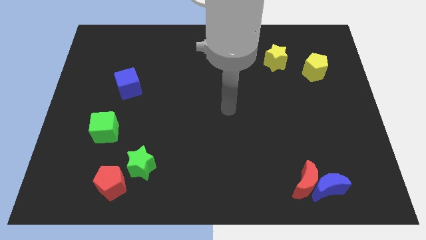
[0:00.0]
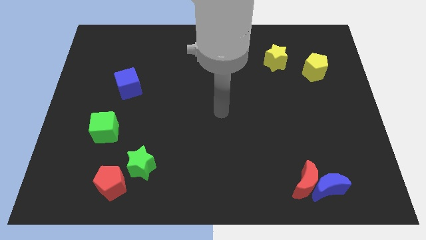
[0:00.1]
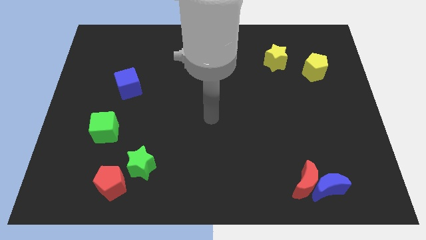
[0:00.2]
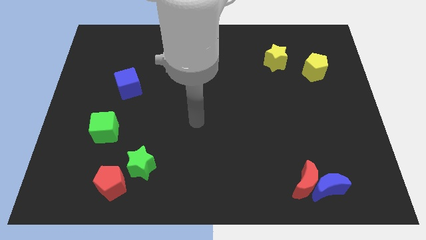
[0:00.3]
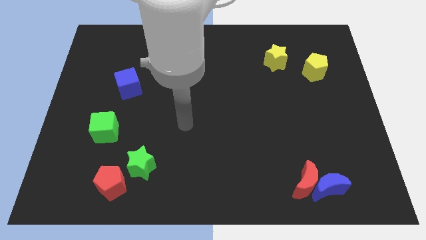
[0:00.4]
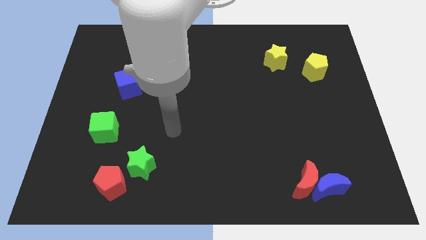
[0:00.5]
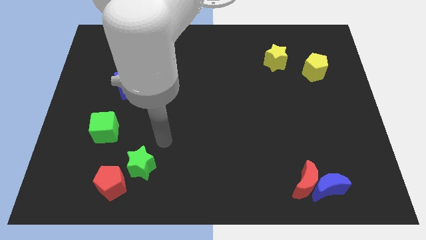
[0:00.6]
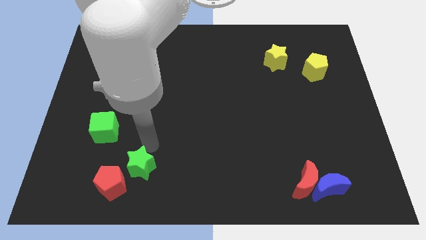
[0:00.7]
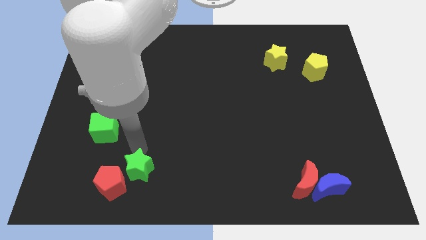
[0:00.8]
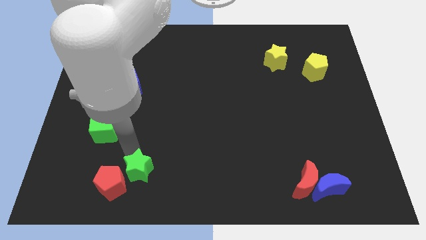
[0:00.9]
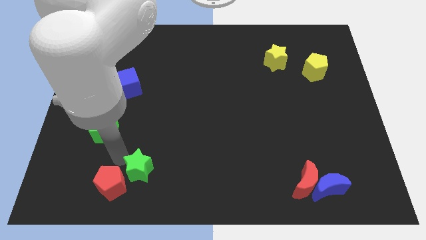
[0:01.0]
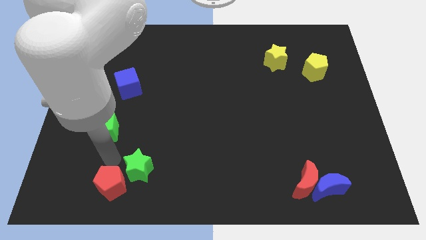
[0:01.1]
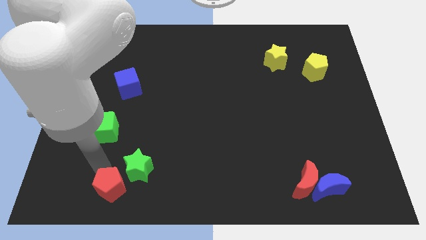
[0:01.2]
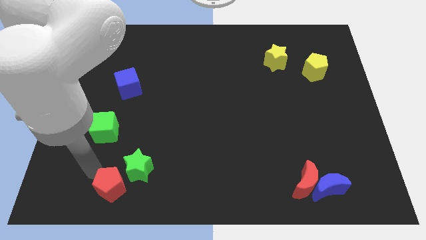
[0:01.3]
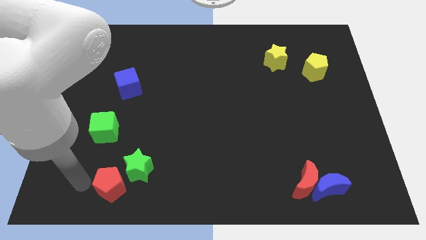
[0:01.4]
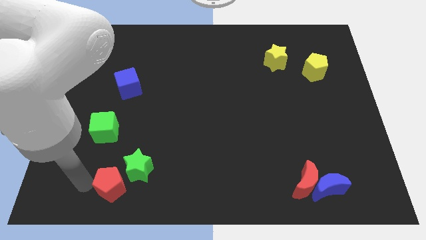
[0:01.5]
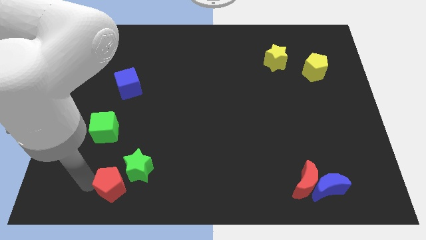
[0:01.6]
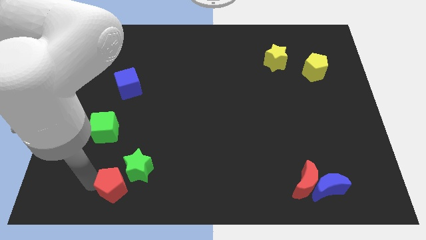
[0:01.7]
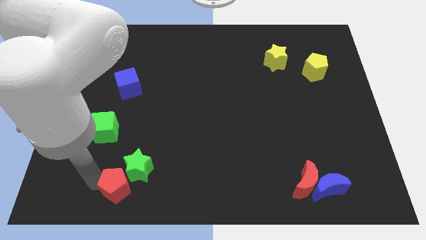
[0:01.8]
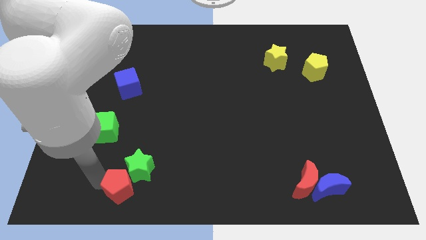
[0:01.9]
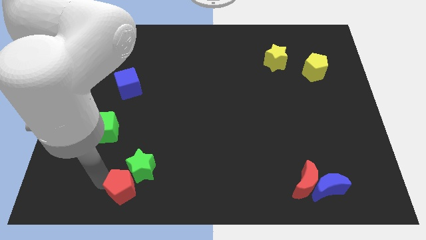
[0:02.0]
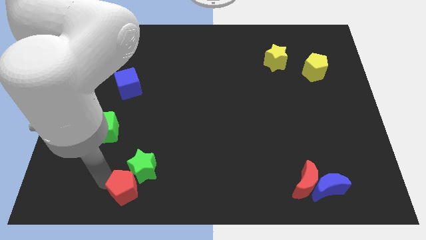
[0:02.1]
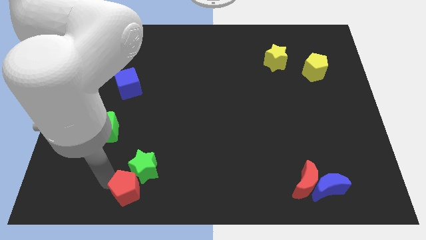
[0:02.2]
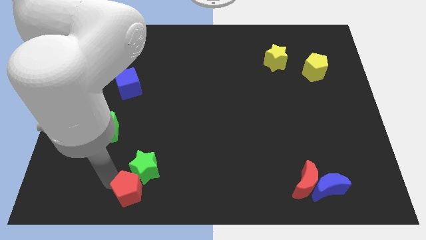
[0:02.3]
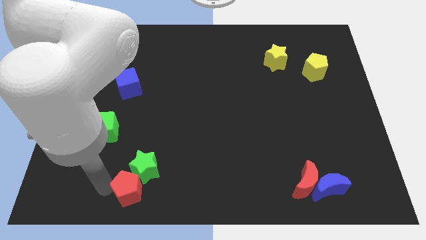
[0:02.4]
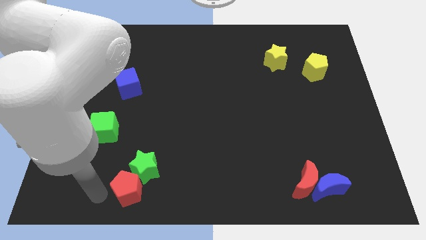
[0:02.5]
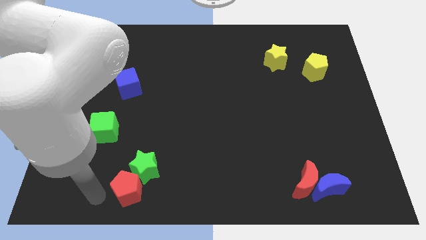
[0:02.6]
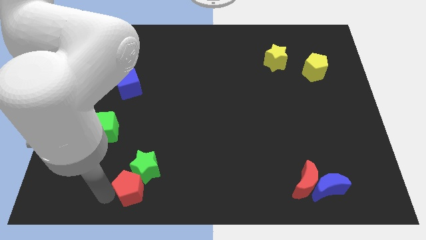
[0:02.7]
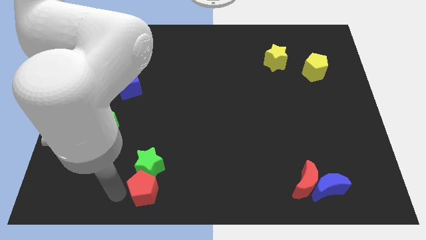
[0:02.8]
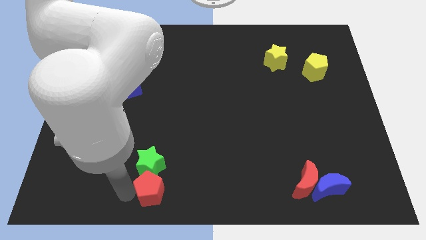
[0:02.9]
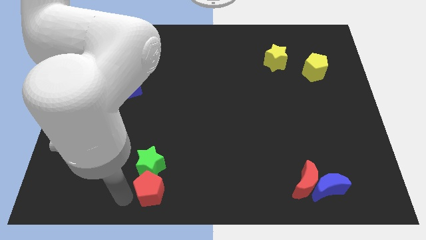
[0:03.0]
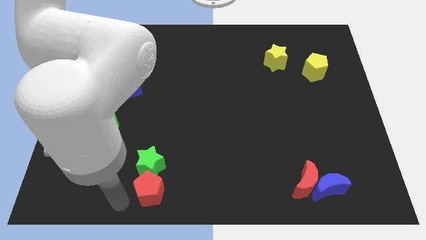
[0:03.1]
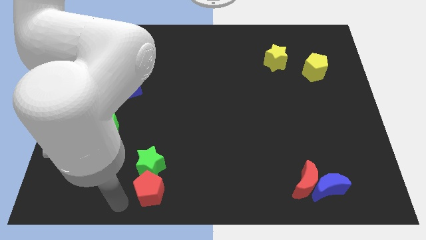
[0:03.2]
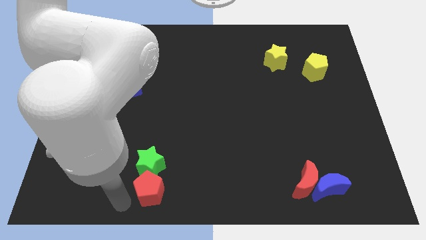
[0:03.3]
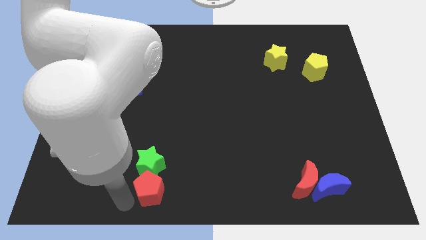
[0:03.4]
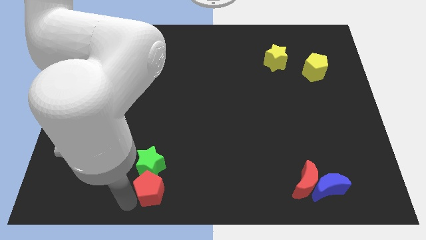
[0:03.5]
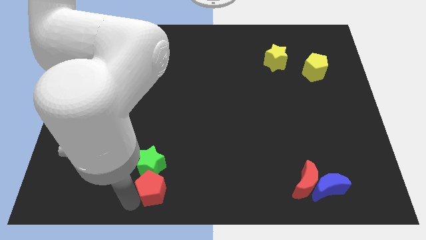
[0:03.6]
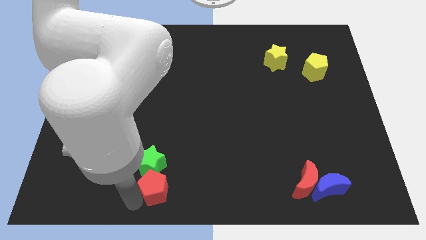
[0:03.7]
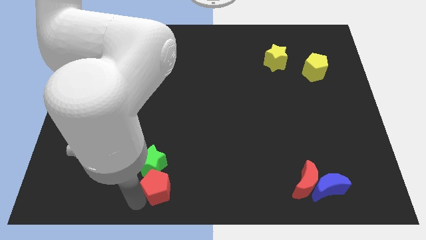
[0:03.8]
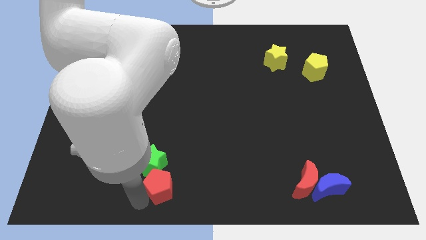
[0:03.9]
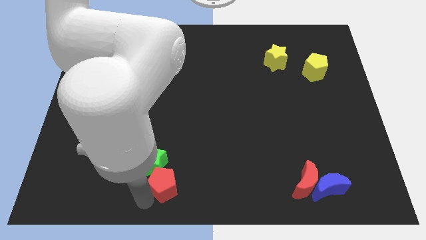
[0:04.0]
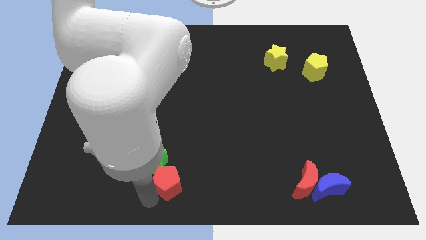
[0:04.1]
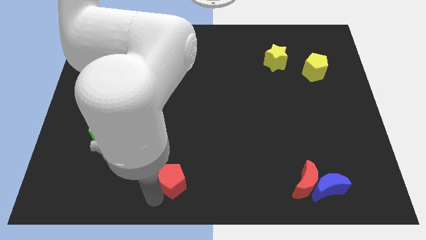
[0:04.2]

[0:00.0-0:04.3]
move the red pentagon right of the green star

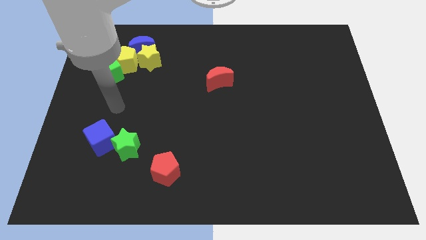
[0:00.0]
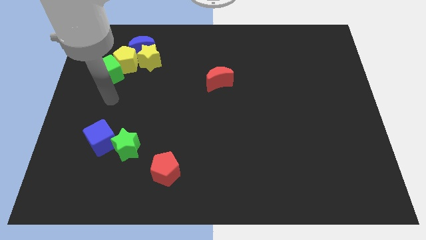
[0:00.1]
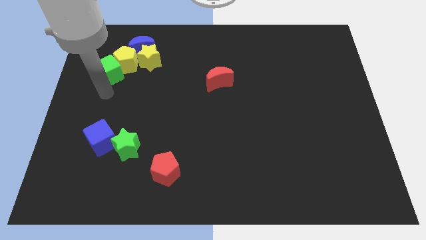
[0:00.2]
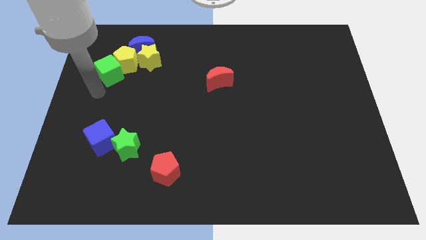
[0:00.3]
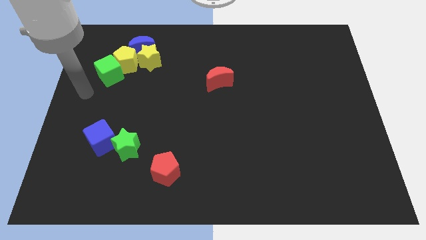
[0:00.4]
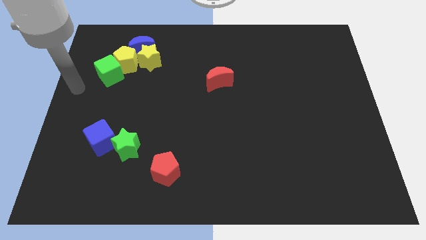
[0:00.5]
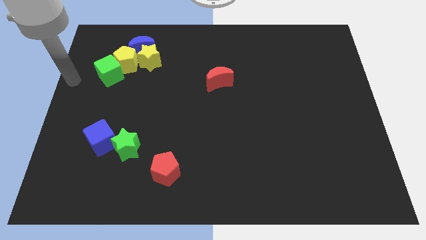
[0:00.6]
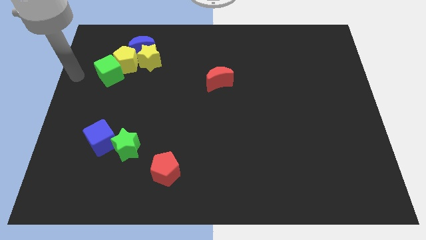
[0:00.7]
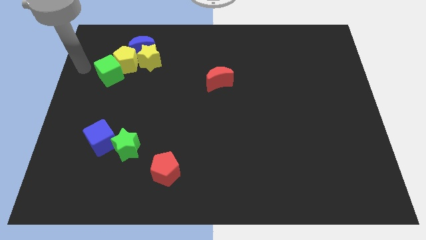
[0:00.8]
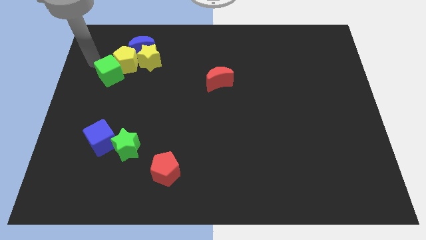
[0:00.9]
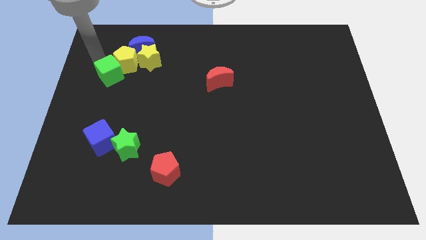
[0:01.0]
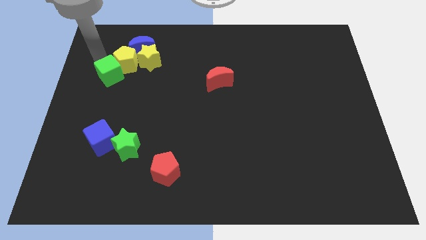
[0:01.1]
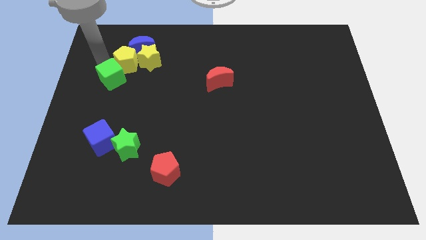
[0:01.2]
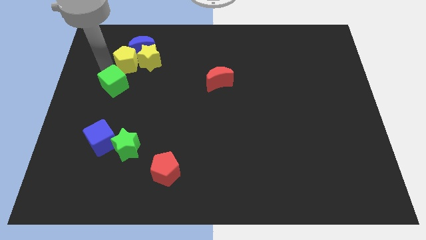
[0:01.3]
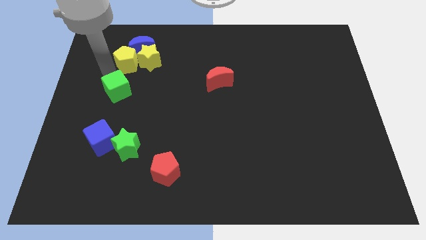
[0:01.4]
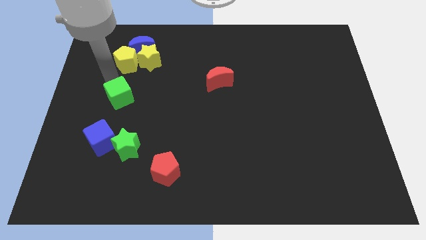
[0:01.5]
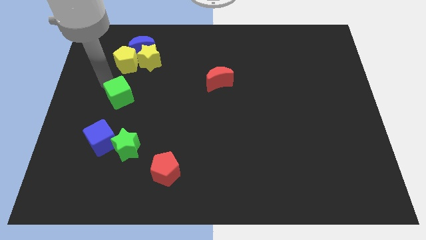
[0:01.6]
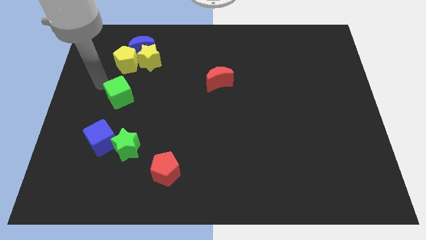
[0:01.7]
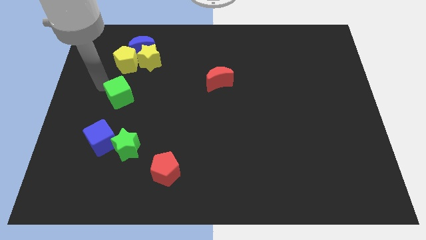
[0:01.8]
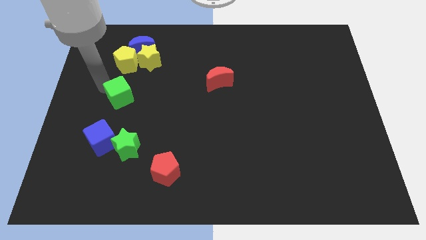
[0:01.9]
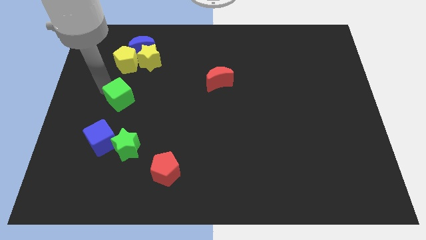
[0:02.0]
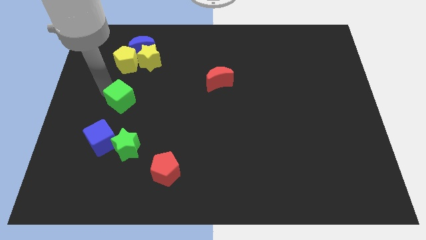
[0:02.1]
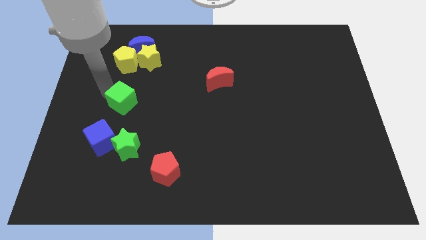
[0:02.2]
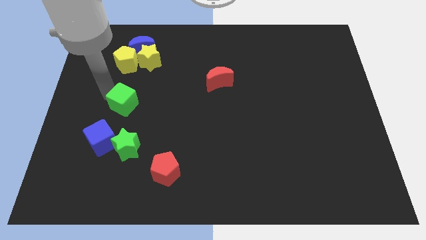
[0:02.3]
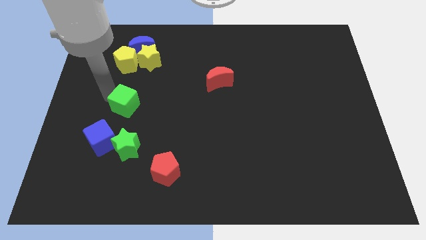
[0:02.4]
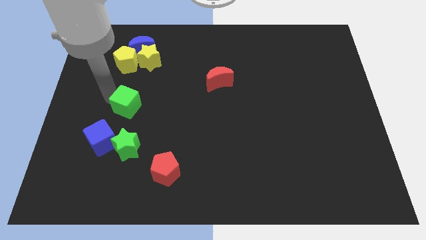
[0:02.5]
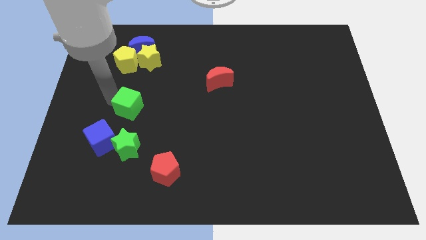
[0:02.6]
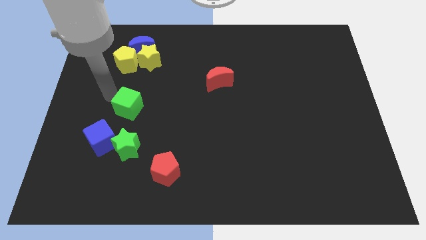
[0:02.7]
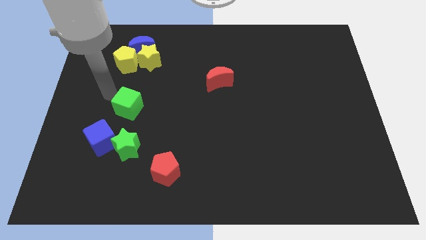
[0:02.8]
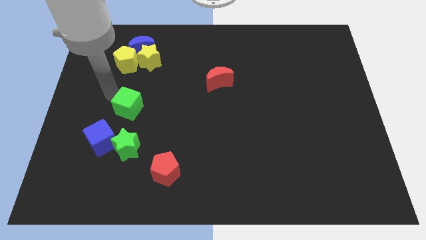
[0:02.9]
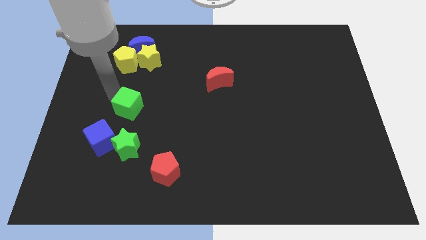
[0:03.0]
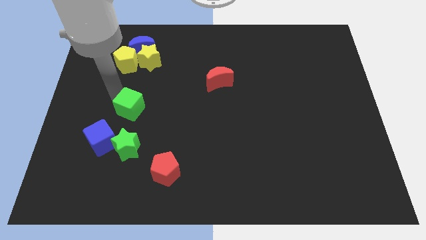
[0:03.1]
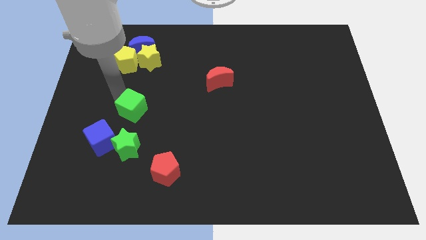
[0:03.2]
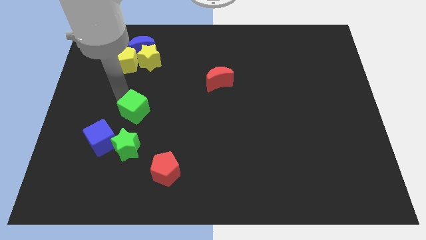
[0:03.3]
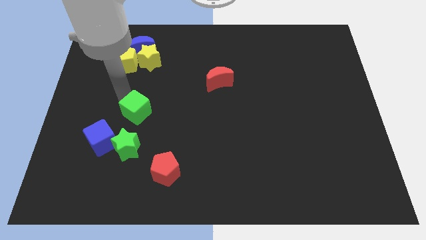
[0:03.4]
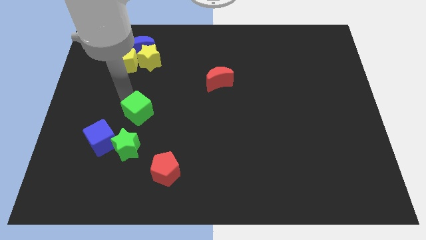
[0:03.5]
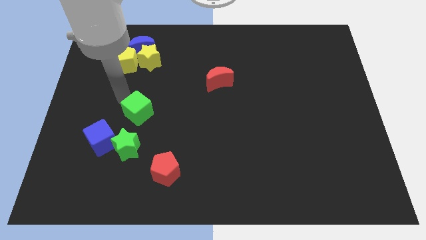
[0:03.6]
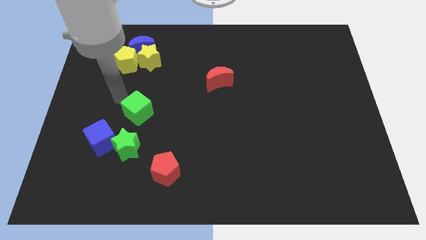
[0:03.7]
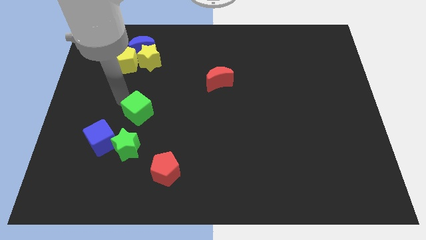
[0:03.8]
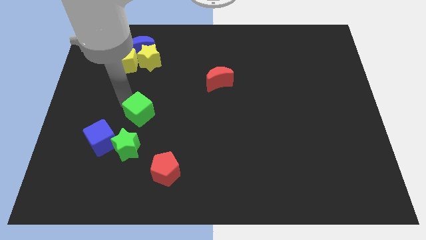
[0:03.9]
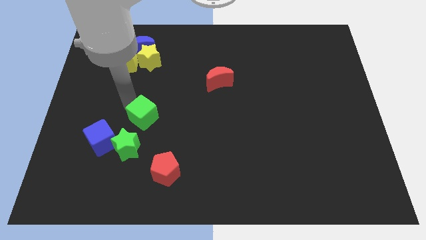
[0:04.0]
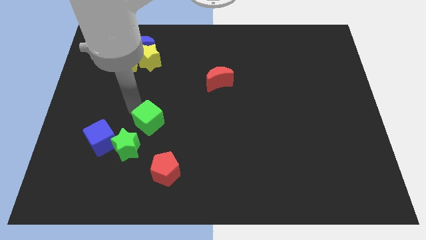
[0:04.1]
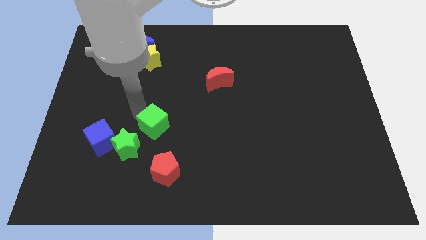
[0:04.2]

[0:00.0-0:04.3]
move the green cube to the top of the red pentagon
